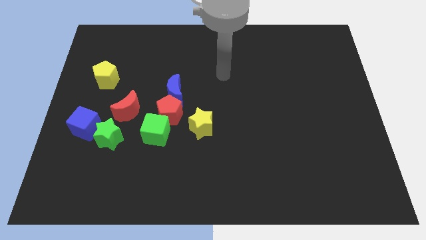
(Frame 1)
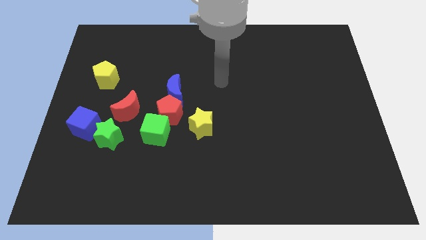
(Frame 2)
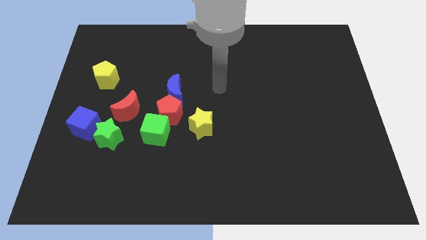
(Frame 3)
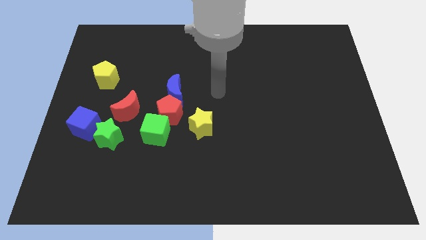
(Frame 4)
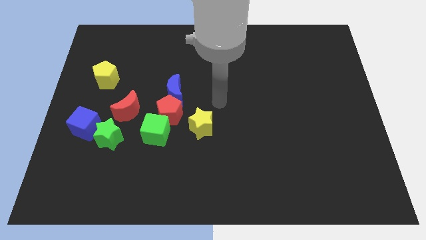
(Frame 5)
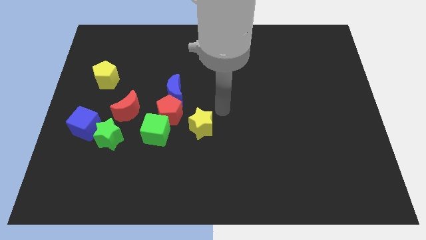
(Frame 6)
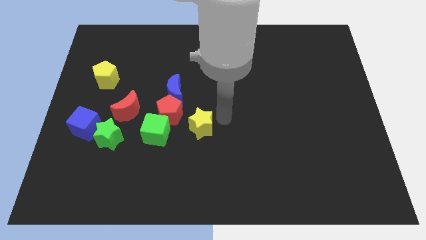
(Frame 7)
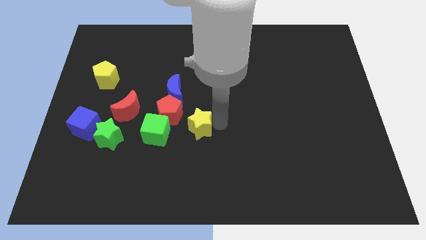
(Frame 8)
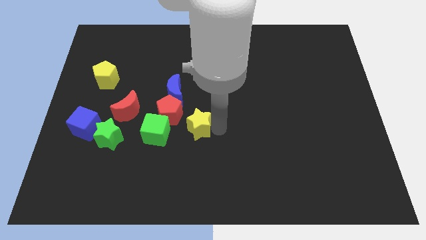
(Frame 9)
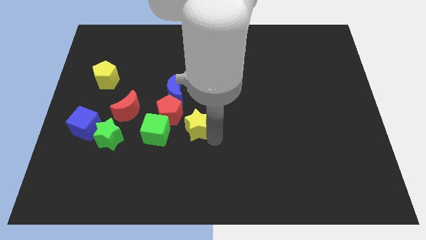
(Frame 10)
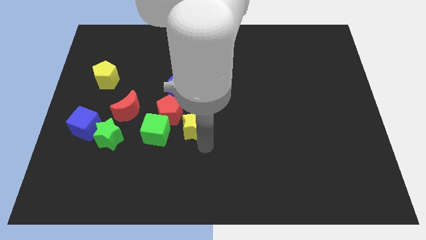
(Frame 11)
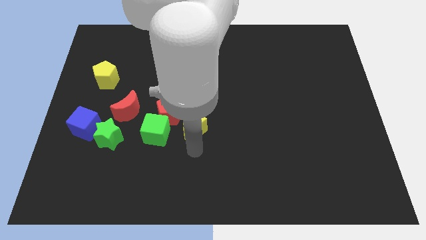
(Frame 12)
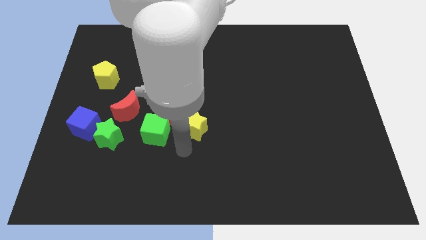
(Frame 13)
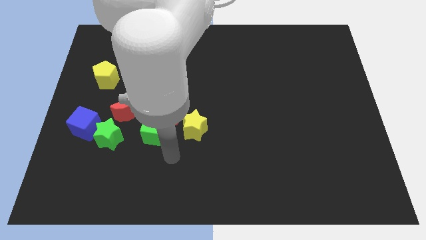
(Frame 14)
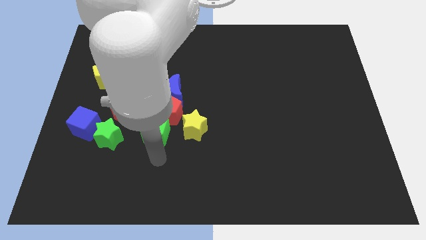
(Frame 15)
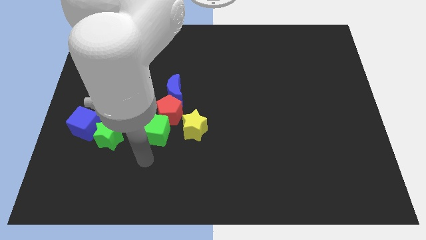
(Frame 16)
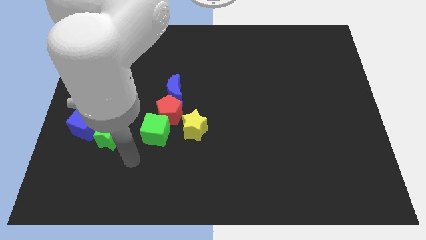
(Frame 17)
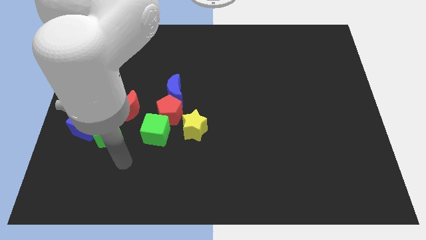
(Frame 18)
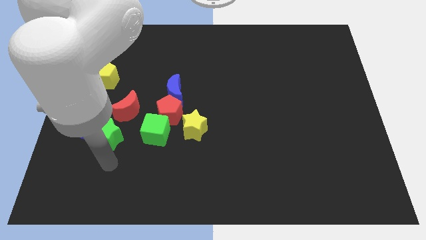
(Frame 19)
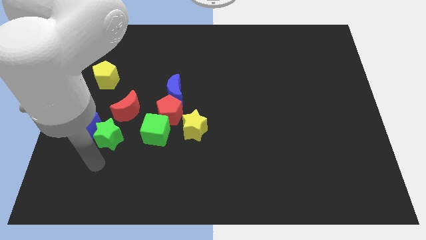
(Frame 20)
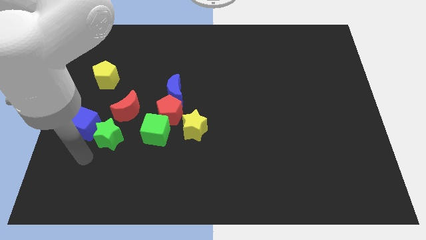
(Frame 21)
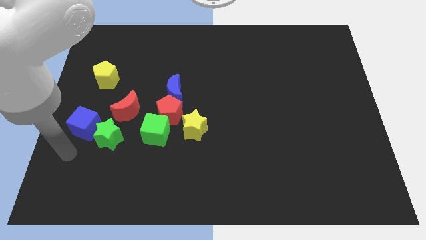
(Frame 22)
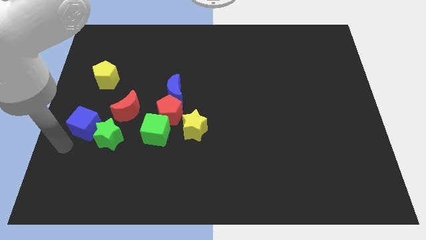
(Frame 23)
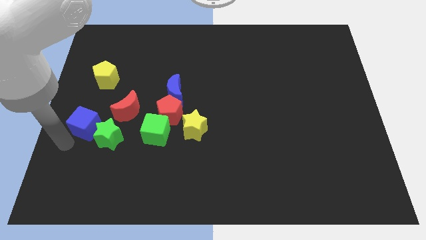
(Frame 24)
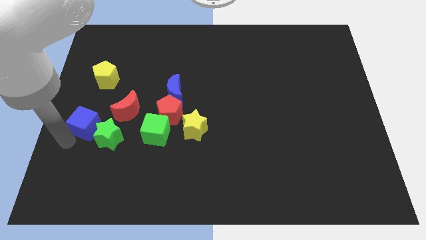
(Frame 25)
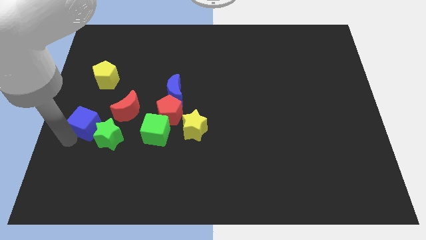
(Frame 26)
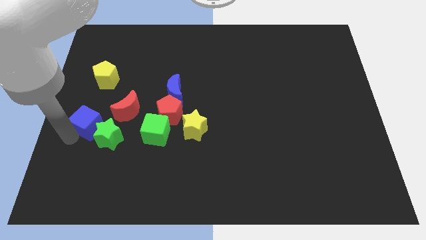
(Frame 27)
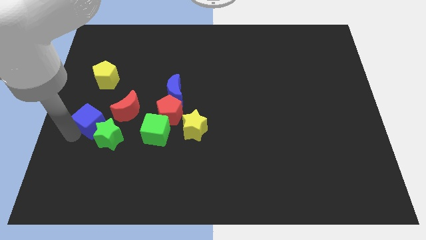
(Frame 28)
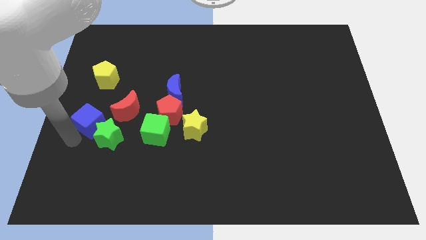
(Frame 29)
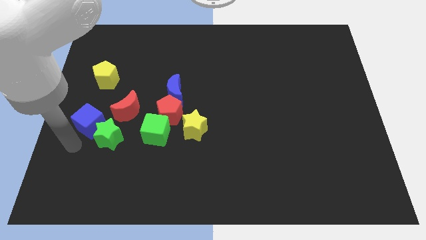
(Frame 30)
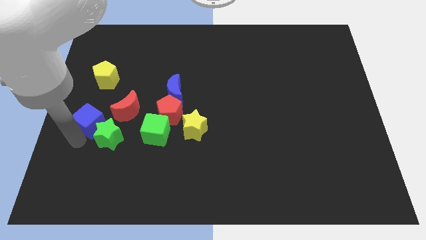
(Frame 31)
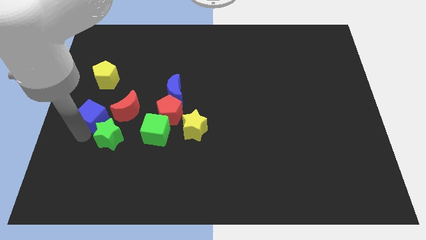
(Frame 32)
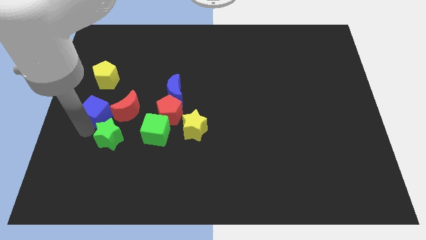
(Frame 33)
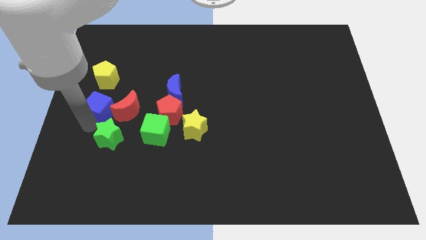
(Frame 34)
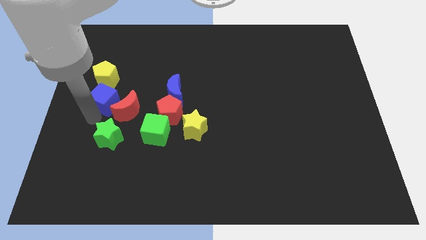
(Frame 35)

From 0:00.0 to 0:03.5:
move the blue cube slightly upwards and right

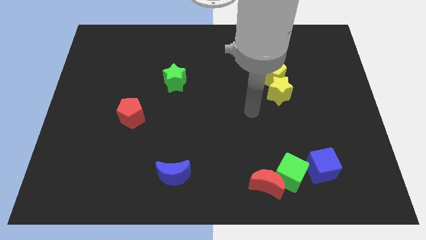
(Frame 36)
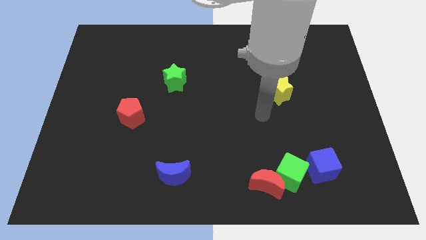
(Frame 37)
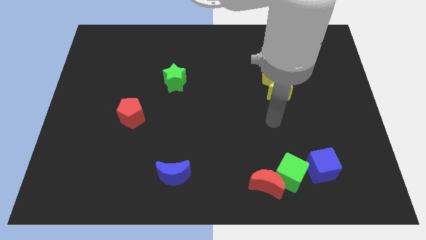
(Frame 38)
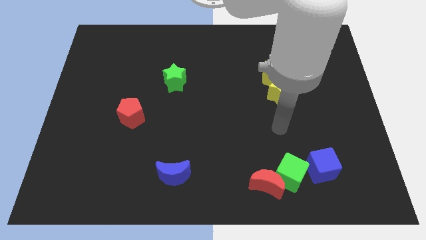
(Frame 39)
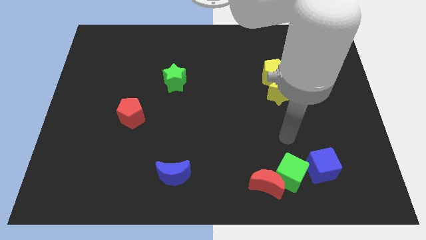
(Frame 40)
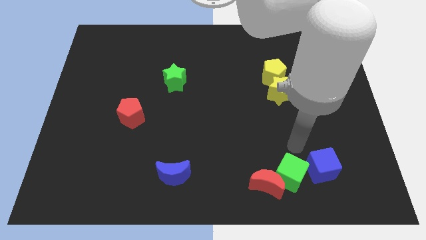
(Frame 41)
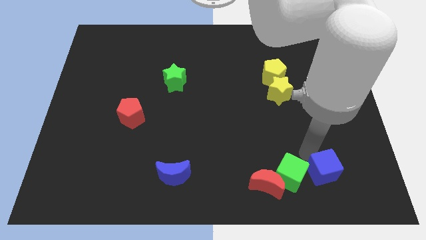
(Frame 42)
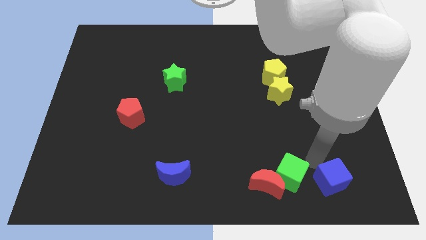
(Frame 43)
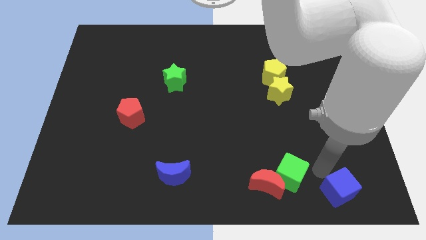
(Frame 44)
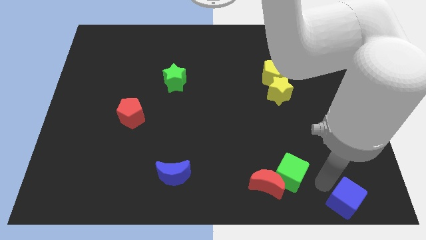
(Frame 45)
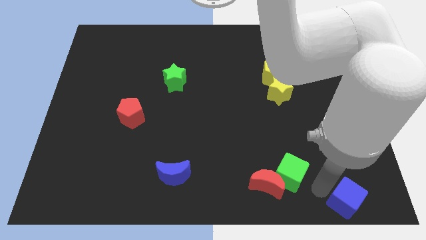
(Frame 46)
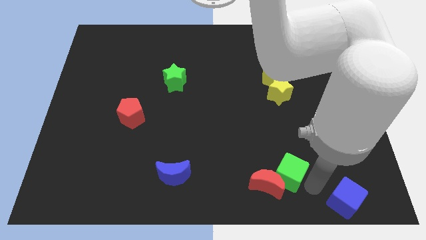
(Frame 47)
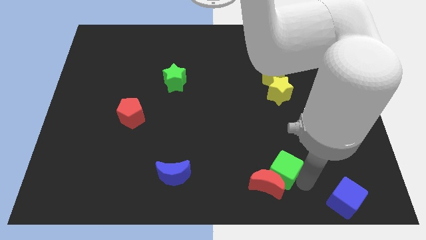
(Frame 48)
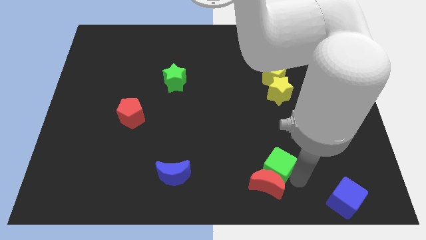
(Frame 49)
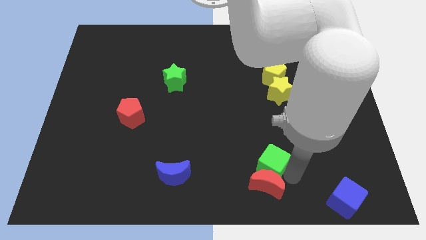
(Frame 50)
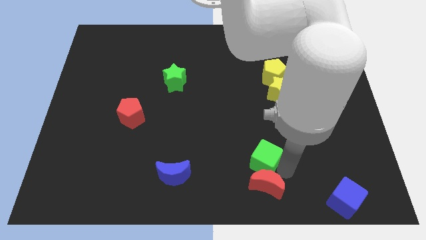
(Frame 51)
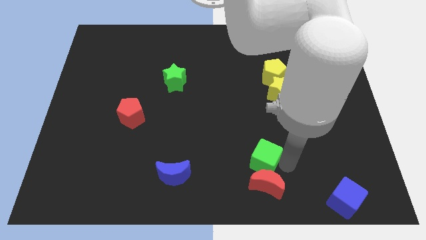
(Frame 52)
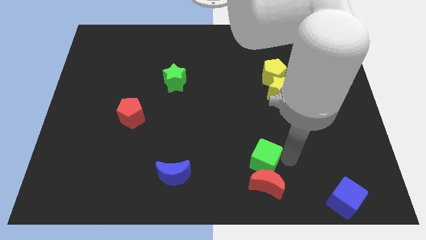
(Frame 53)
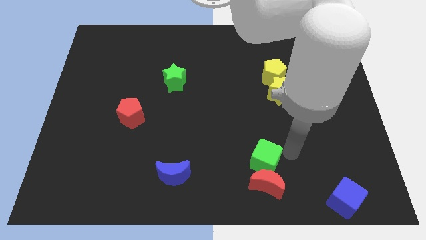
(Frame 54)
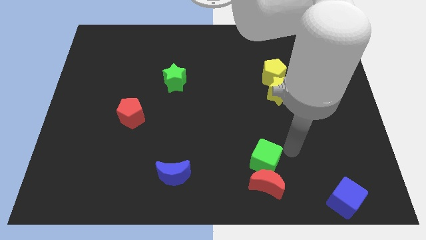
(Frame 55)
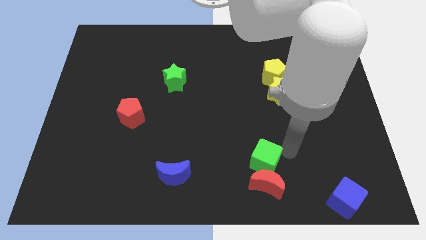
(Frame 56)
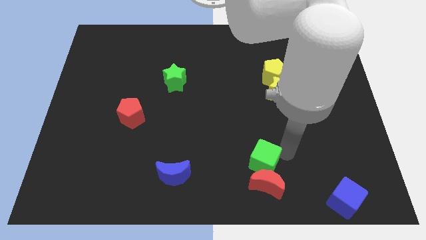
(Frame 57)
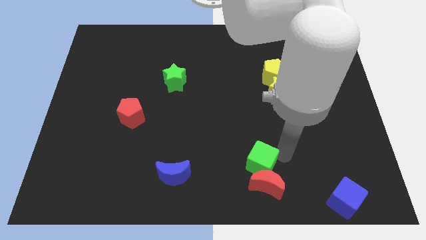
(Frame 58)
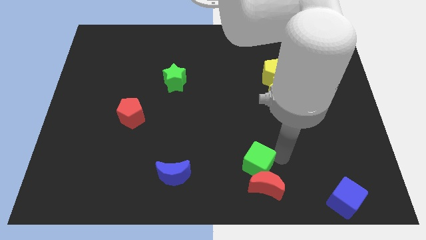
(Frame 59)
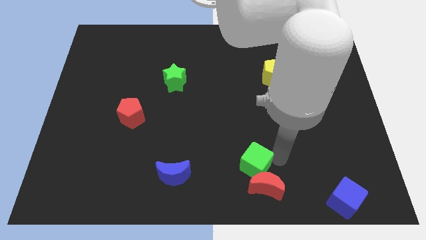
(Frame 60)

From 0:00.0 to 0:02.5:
move the green cube somewhat left

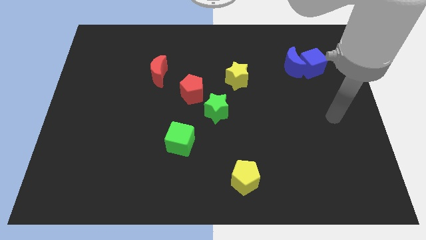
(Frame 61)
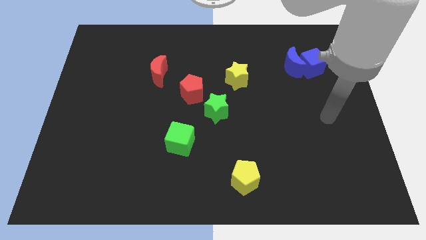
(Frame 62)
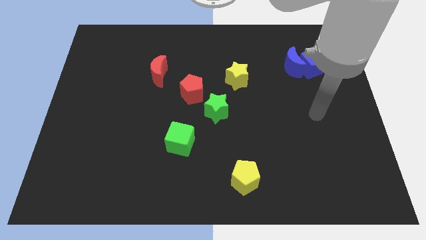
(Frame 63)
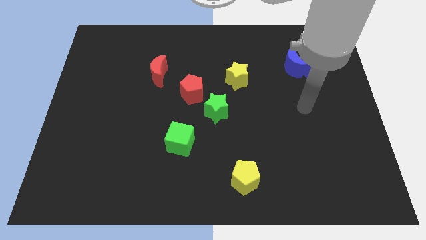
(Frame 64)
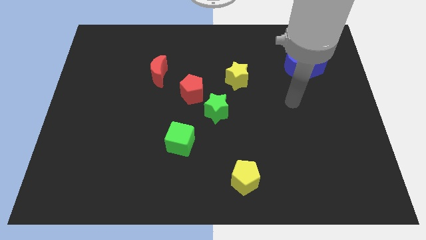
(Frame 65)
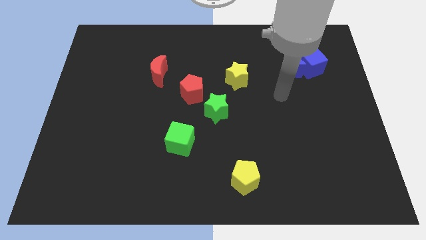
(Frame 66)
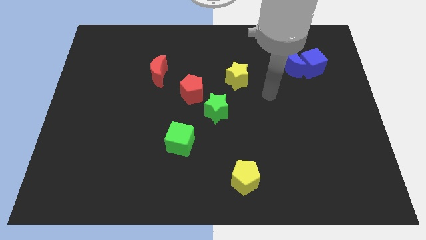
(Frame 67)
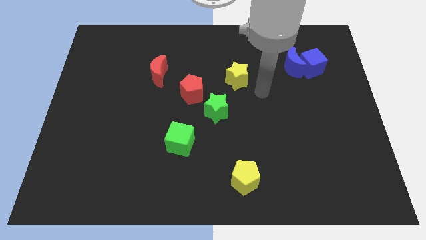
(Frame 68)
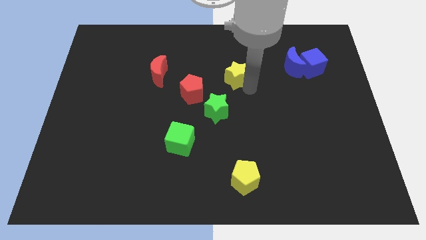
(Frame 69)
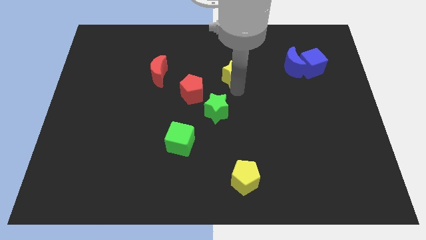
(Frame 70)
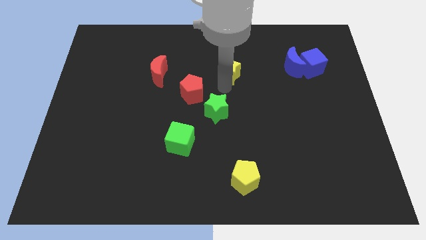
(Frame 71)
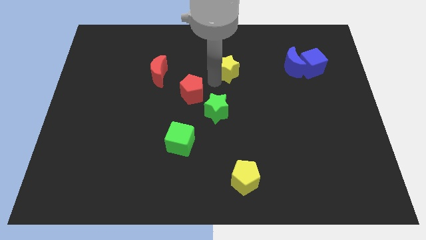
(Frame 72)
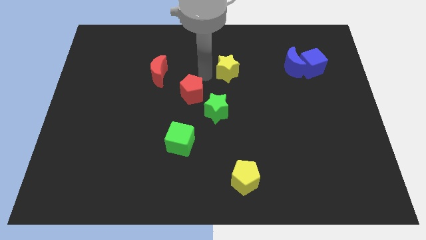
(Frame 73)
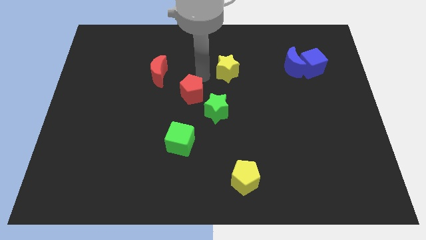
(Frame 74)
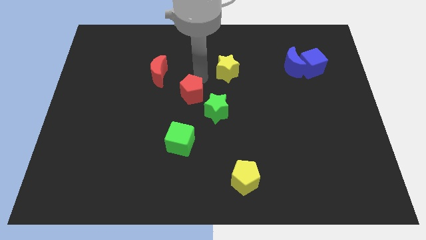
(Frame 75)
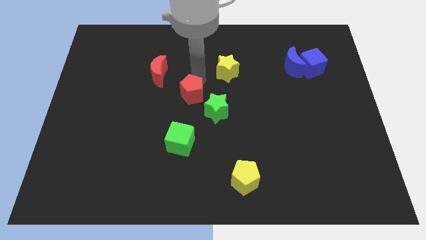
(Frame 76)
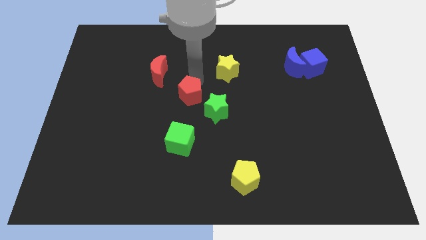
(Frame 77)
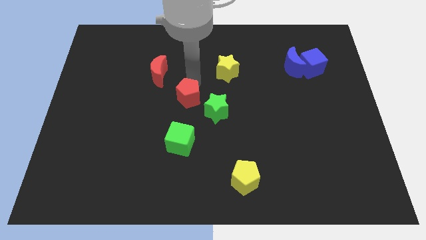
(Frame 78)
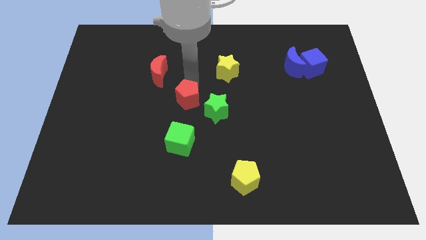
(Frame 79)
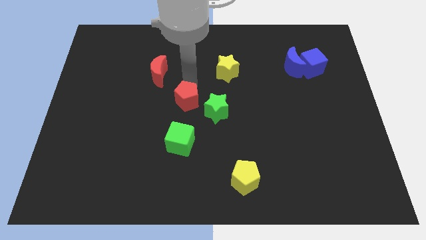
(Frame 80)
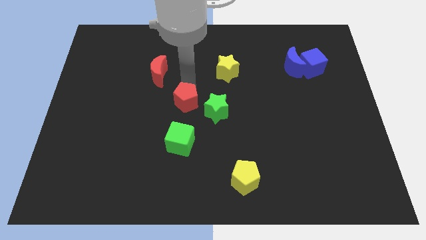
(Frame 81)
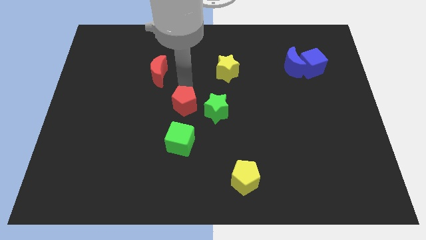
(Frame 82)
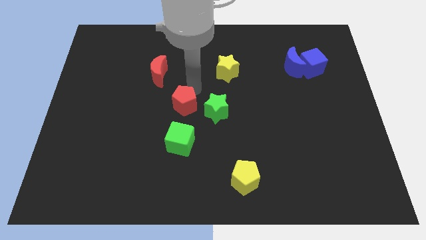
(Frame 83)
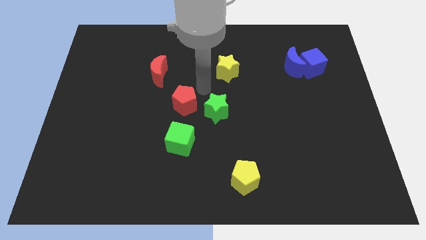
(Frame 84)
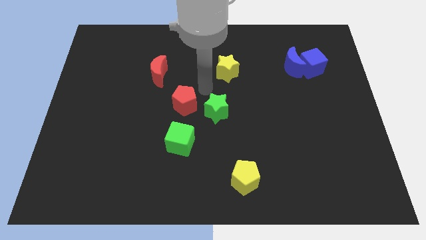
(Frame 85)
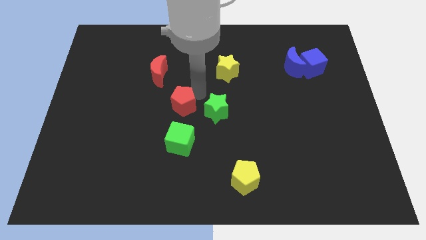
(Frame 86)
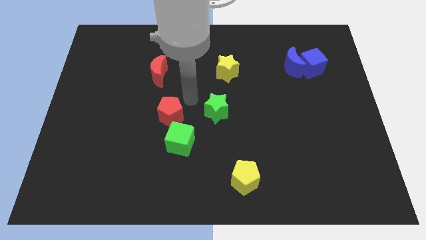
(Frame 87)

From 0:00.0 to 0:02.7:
slide the red pentagon down and left diagonally slightly
